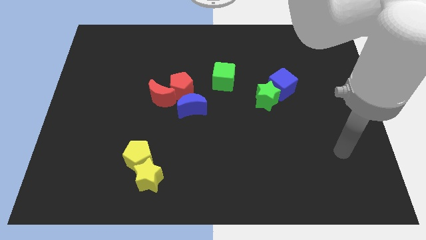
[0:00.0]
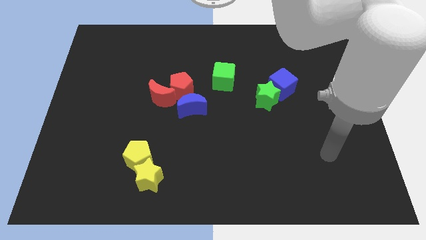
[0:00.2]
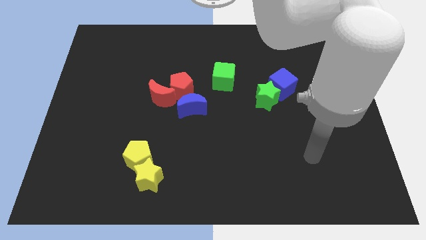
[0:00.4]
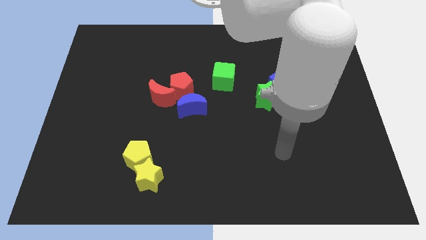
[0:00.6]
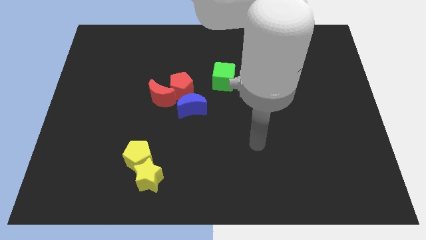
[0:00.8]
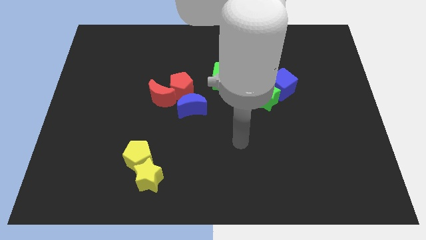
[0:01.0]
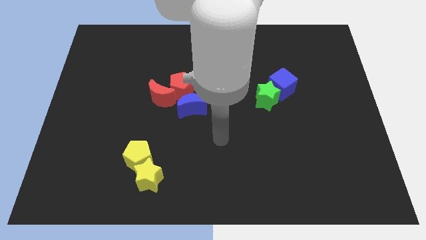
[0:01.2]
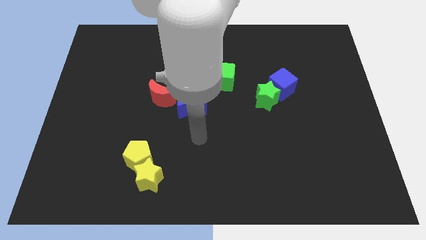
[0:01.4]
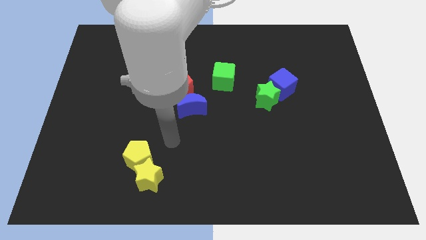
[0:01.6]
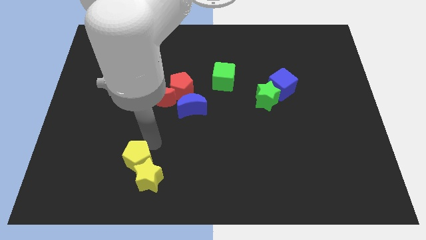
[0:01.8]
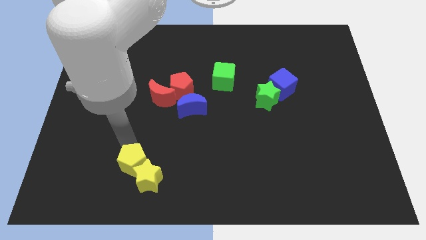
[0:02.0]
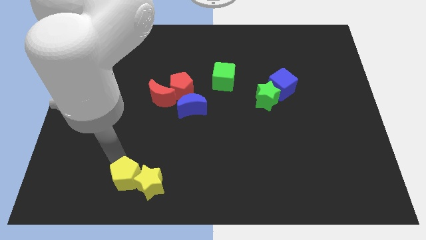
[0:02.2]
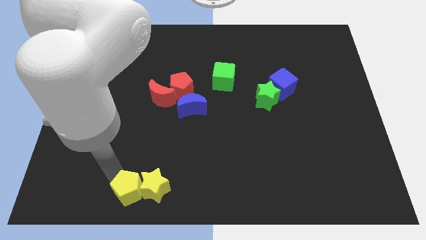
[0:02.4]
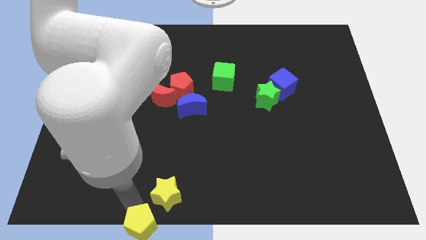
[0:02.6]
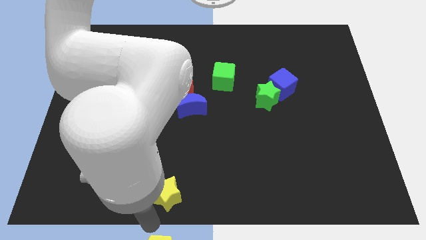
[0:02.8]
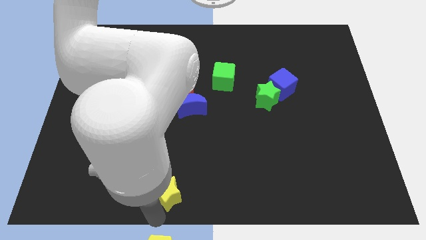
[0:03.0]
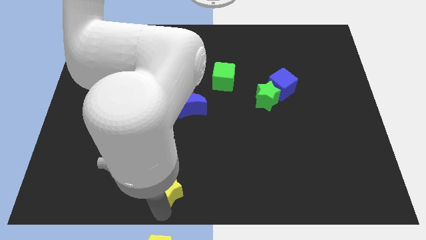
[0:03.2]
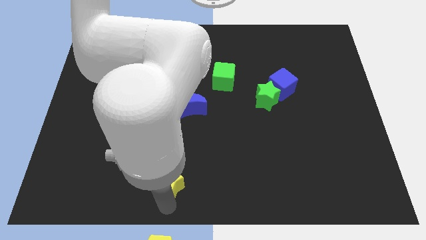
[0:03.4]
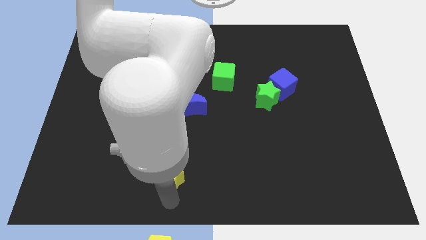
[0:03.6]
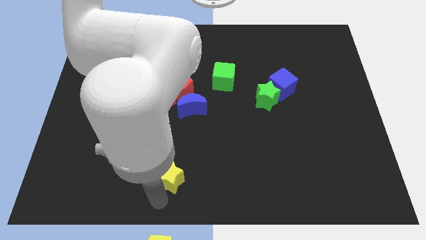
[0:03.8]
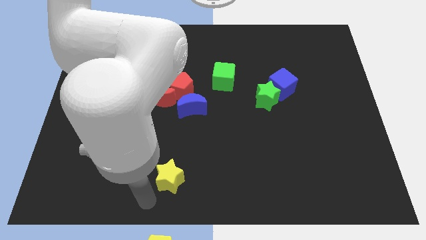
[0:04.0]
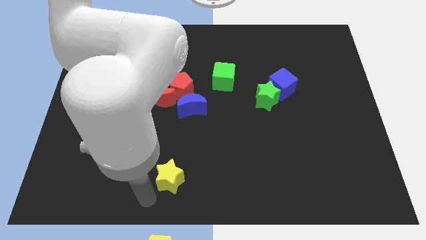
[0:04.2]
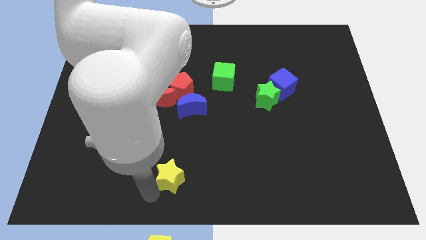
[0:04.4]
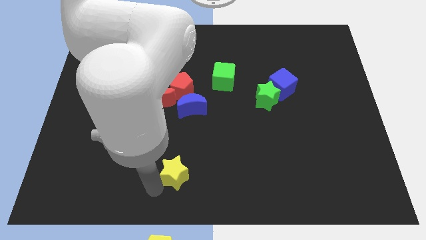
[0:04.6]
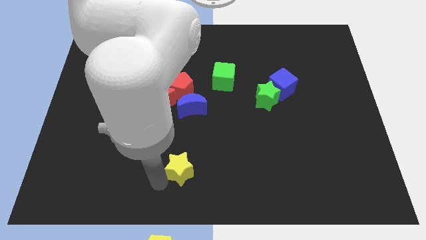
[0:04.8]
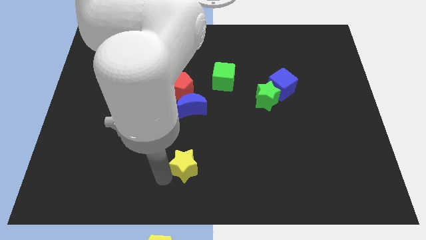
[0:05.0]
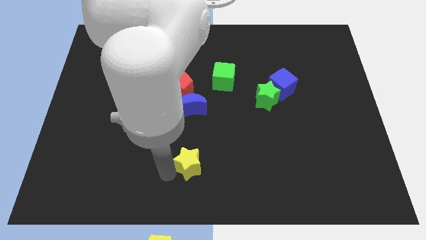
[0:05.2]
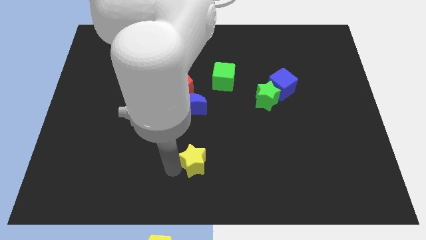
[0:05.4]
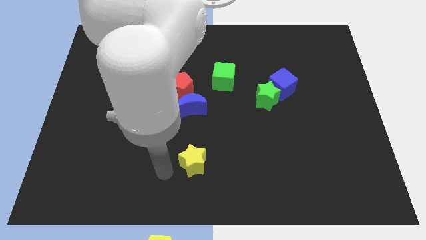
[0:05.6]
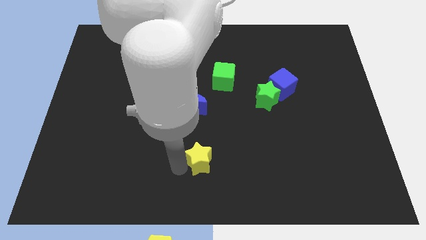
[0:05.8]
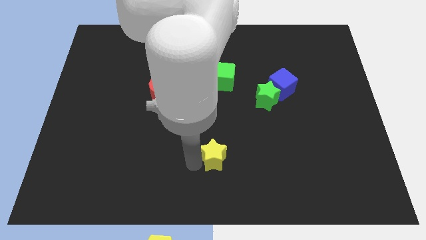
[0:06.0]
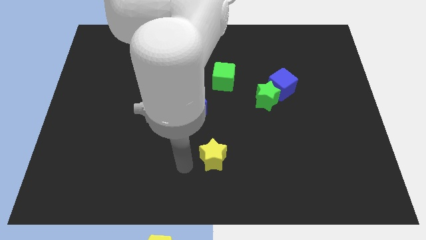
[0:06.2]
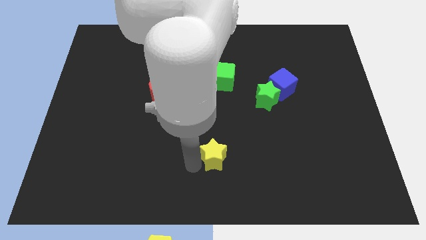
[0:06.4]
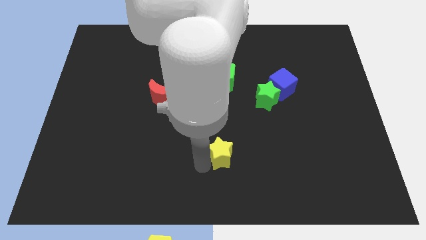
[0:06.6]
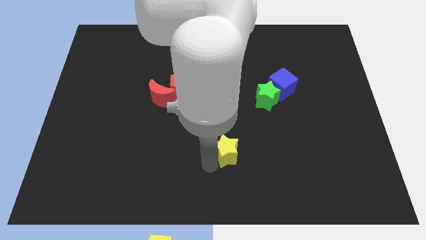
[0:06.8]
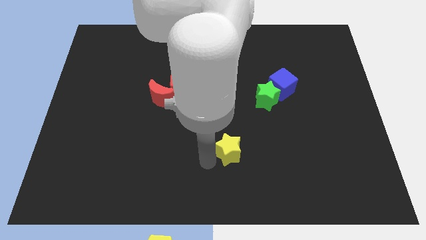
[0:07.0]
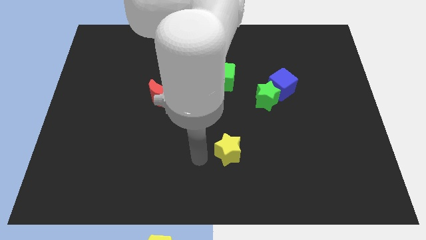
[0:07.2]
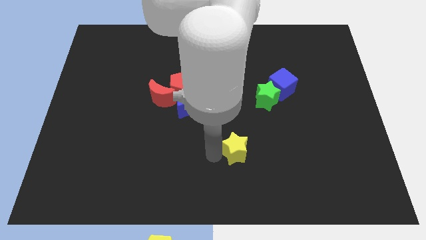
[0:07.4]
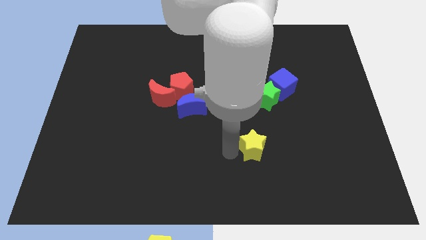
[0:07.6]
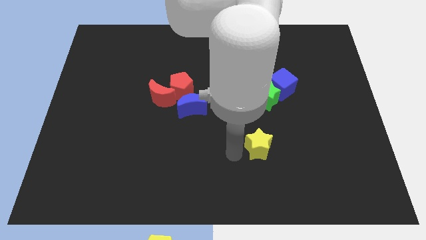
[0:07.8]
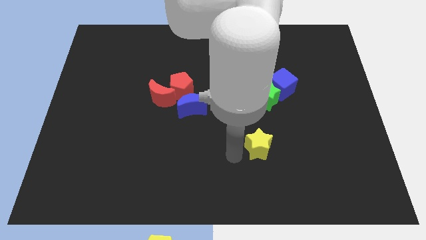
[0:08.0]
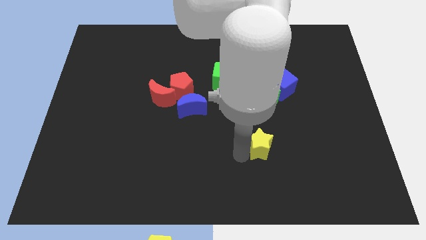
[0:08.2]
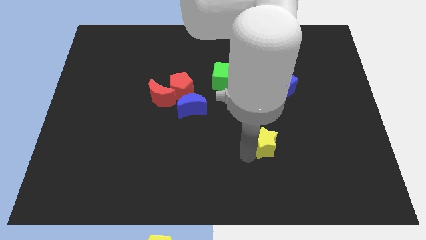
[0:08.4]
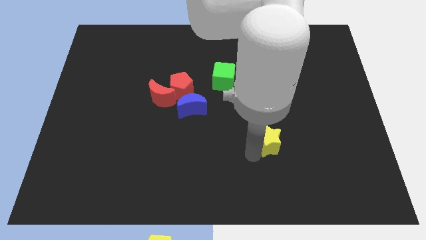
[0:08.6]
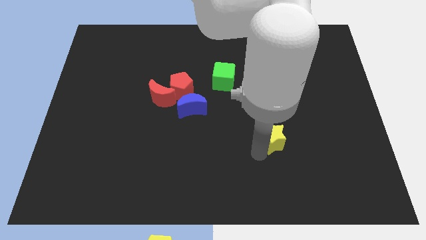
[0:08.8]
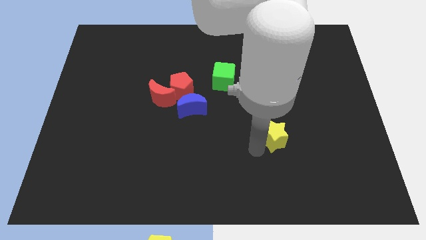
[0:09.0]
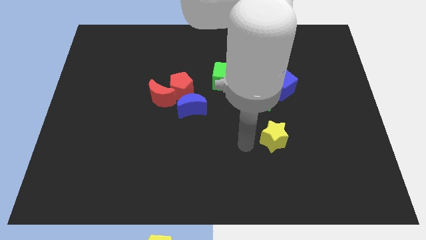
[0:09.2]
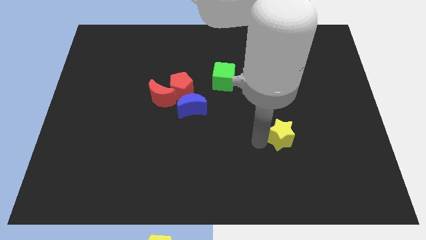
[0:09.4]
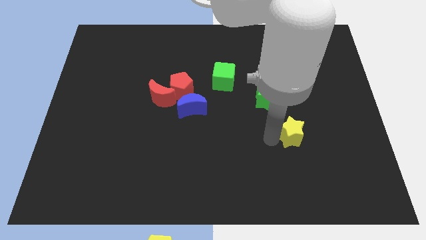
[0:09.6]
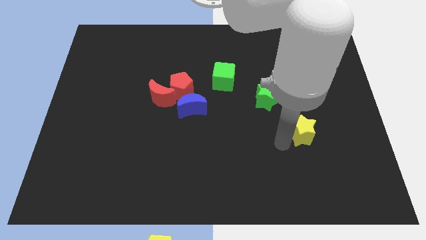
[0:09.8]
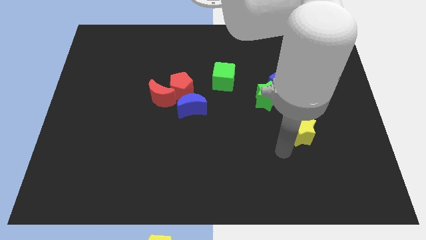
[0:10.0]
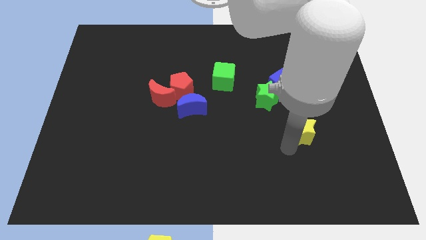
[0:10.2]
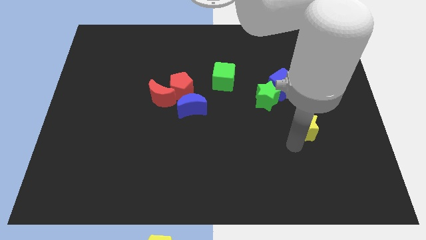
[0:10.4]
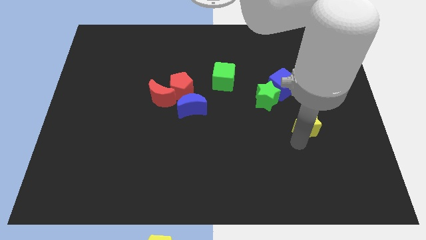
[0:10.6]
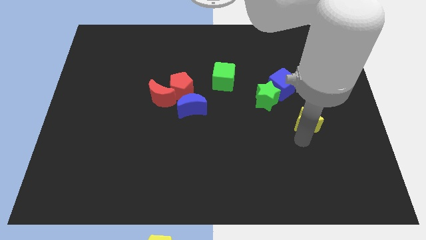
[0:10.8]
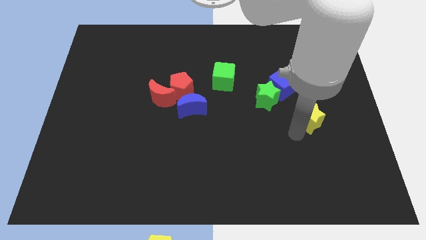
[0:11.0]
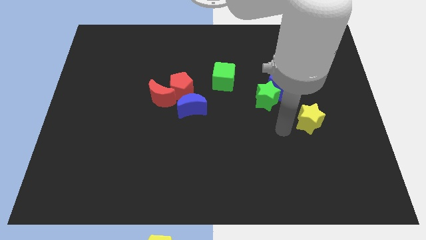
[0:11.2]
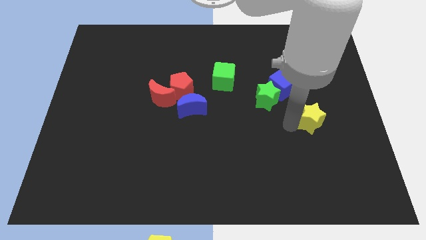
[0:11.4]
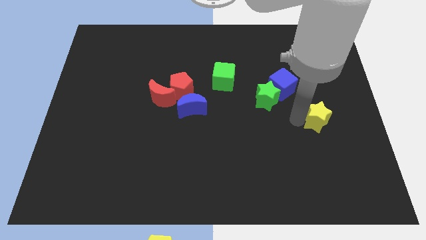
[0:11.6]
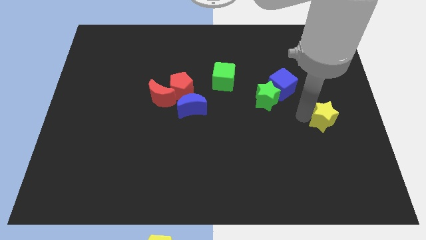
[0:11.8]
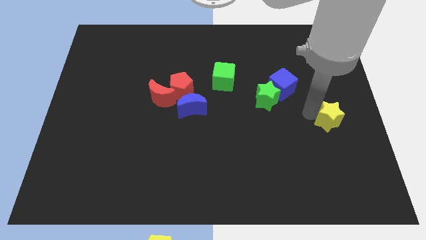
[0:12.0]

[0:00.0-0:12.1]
slide the yellow star to the center right
